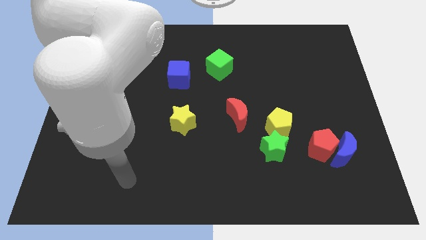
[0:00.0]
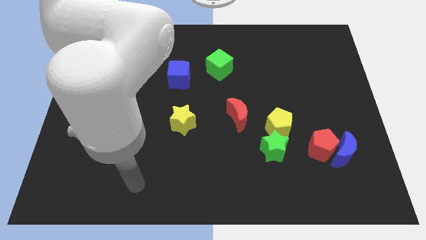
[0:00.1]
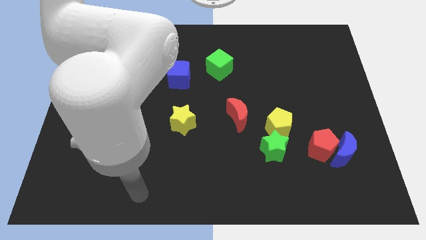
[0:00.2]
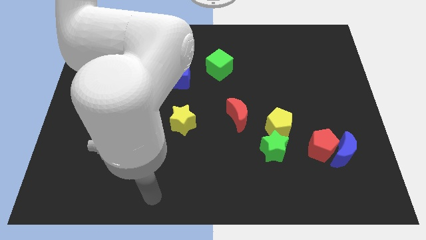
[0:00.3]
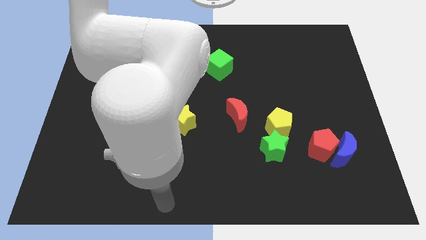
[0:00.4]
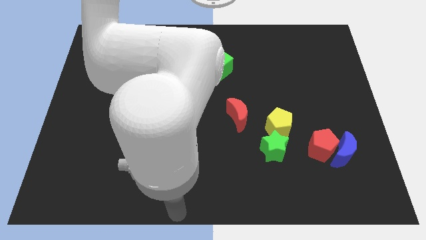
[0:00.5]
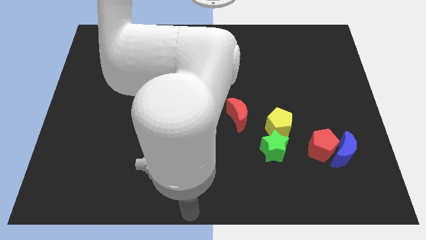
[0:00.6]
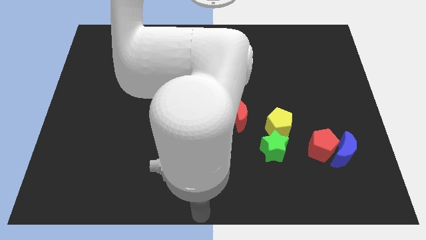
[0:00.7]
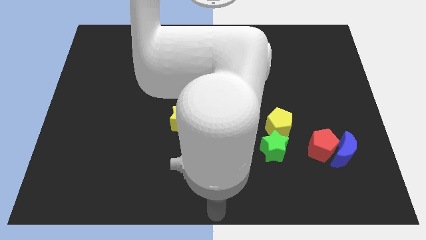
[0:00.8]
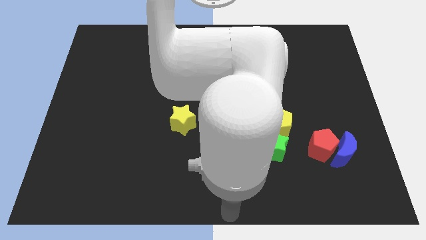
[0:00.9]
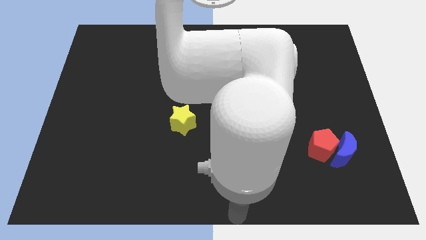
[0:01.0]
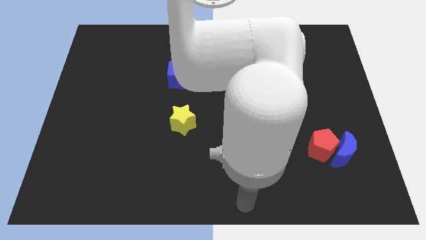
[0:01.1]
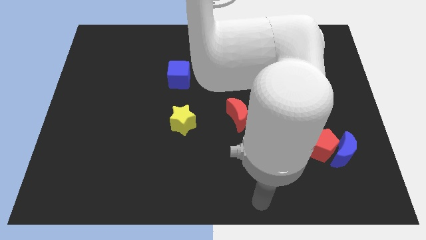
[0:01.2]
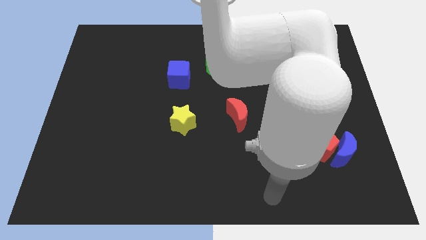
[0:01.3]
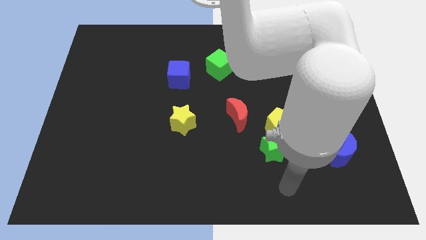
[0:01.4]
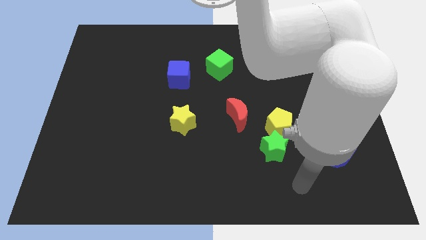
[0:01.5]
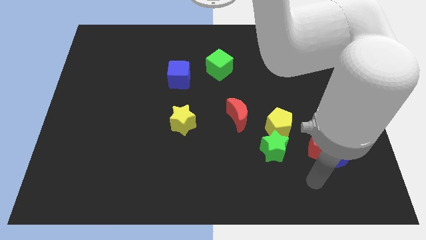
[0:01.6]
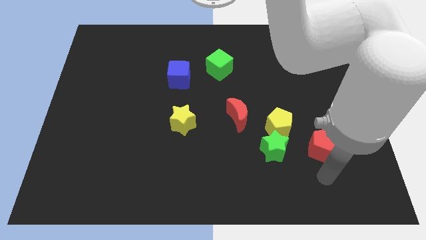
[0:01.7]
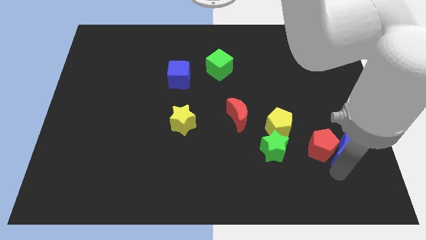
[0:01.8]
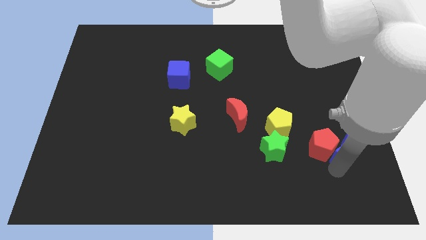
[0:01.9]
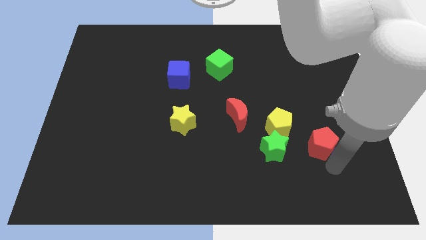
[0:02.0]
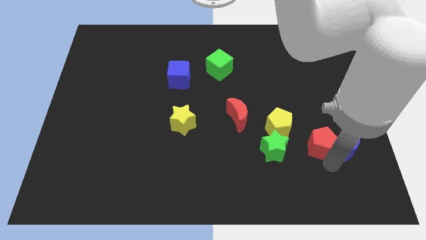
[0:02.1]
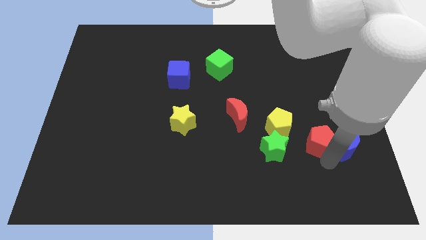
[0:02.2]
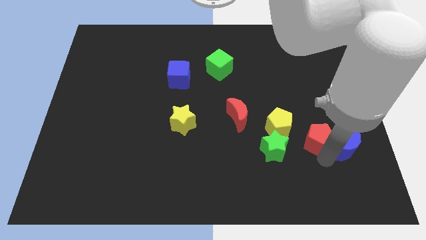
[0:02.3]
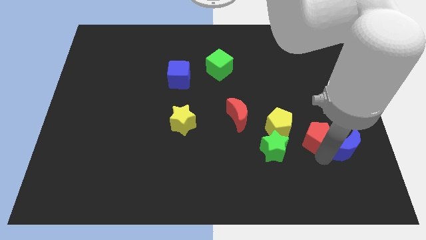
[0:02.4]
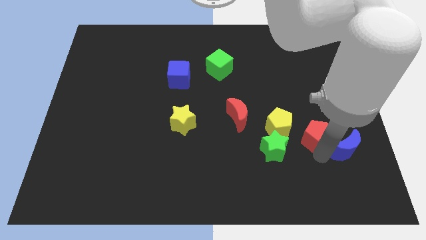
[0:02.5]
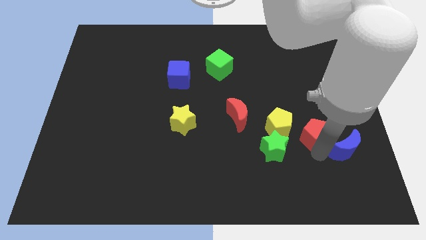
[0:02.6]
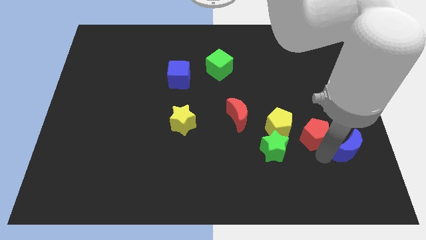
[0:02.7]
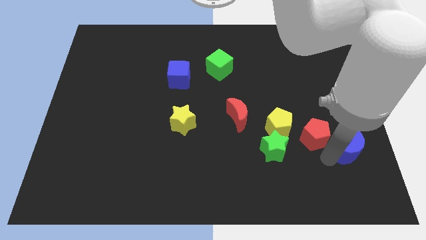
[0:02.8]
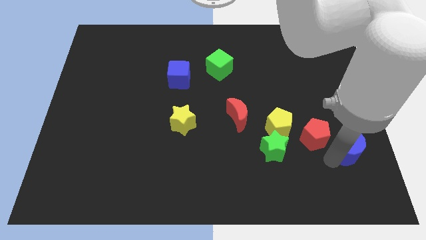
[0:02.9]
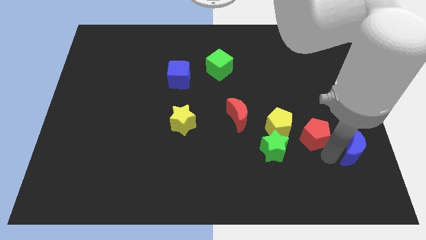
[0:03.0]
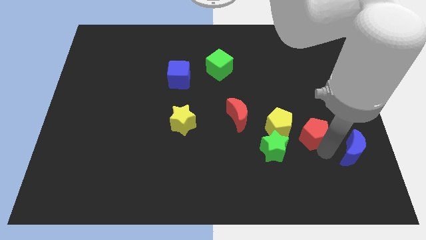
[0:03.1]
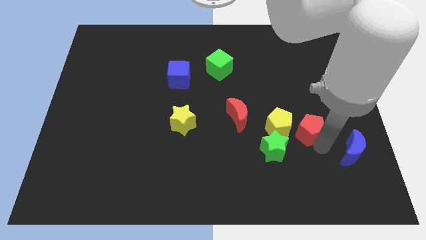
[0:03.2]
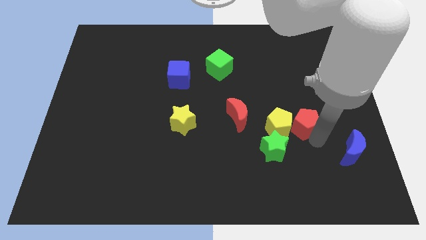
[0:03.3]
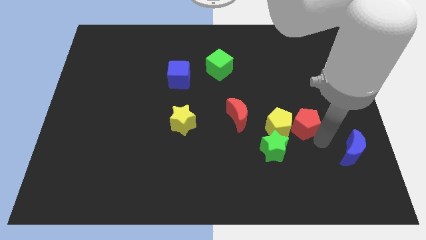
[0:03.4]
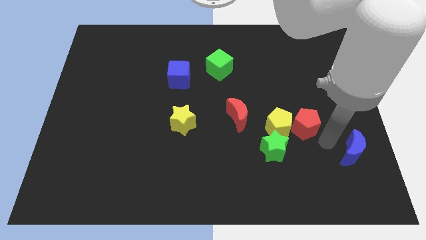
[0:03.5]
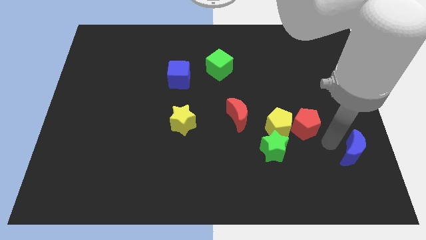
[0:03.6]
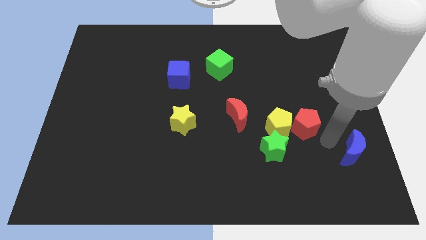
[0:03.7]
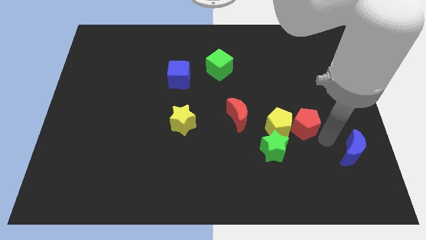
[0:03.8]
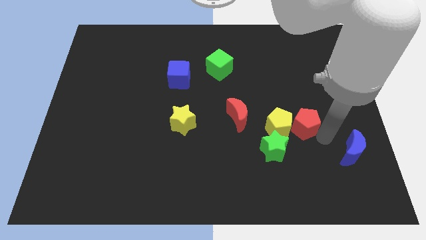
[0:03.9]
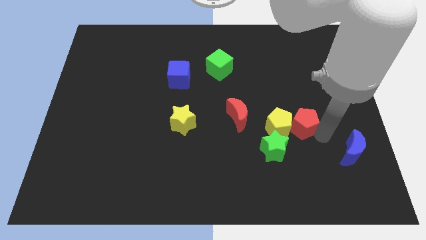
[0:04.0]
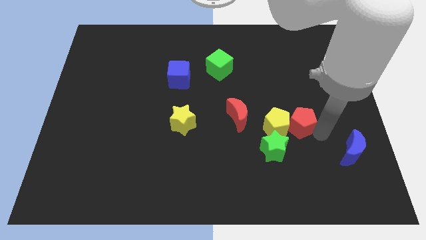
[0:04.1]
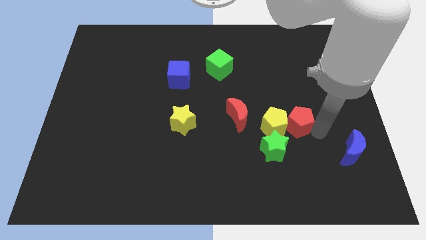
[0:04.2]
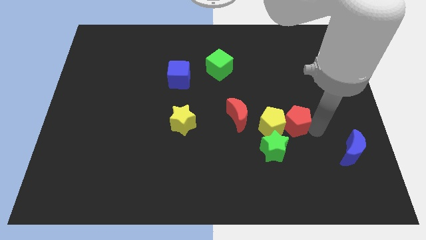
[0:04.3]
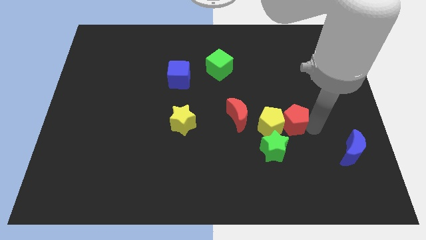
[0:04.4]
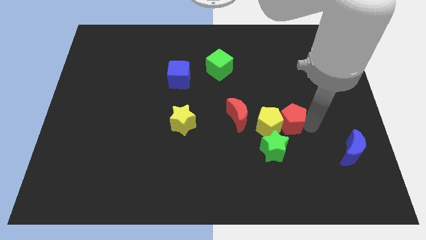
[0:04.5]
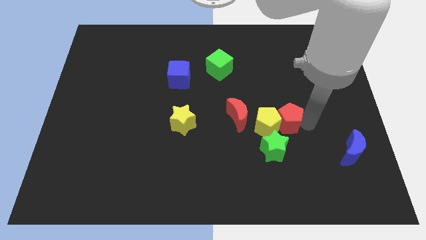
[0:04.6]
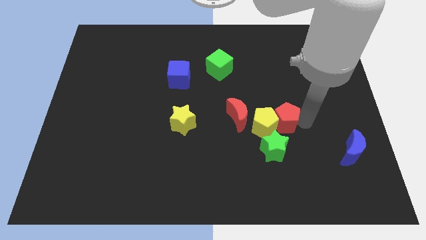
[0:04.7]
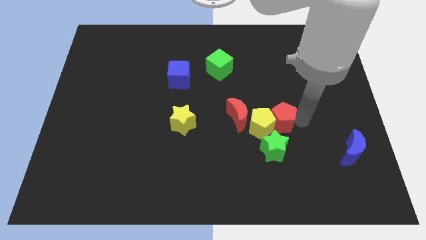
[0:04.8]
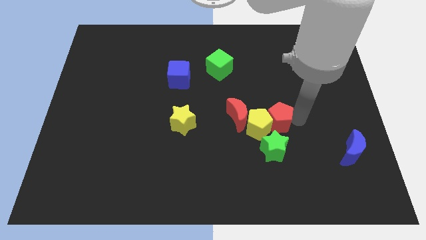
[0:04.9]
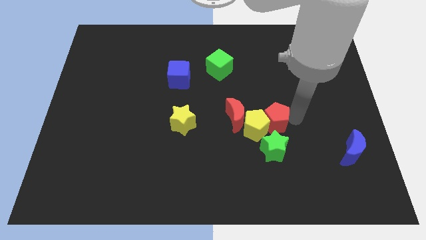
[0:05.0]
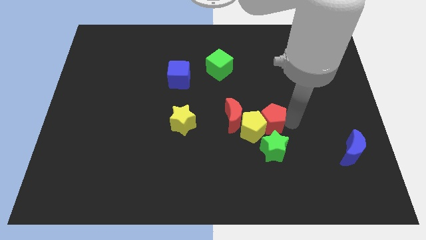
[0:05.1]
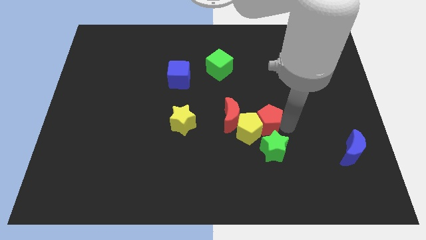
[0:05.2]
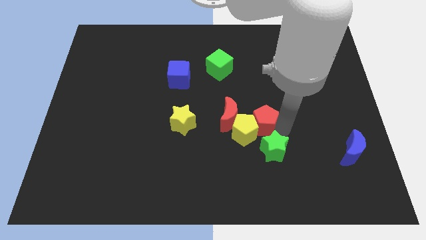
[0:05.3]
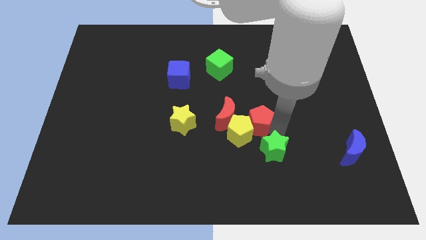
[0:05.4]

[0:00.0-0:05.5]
push the red pentagon to the middle

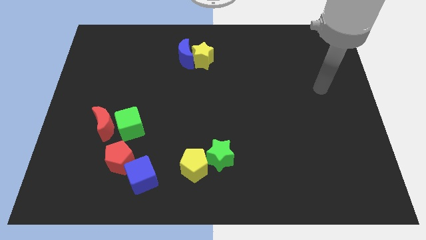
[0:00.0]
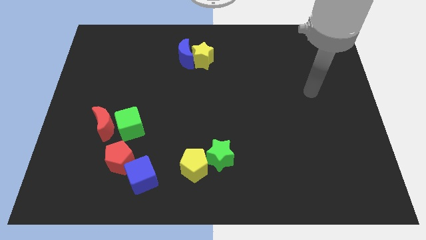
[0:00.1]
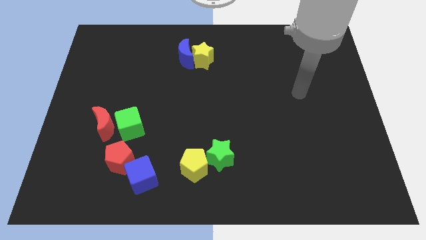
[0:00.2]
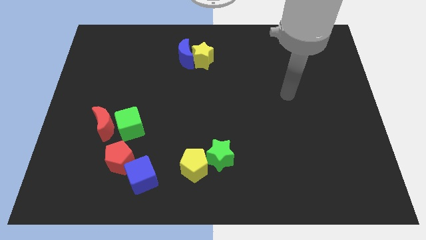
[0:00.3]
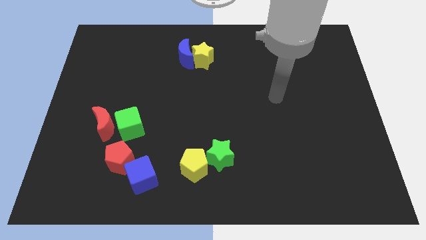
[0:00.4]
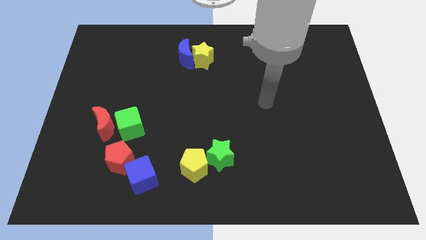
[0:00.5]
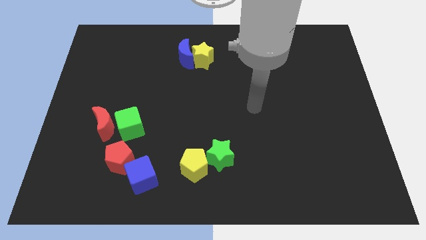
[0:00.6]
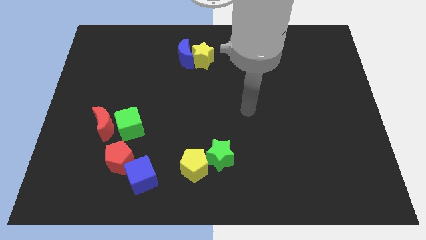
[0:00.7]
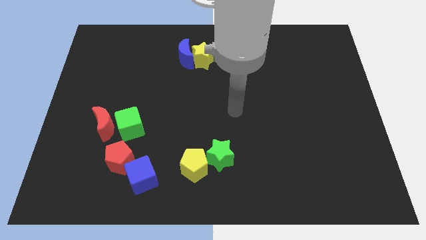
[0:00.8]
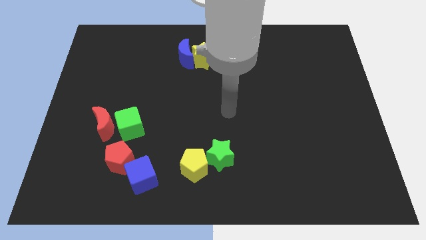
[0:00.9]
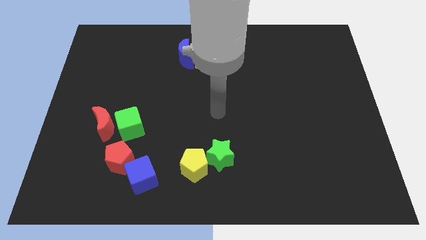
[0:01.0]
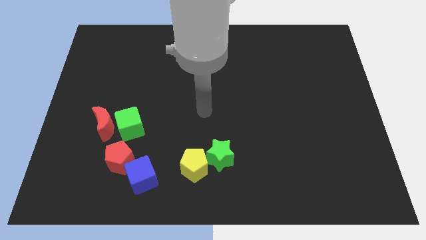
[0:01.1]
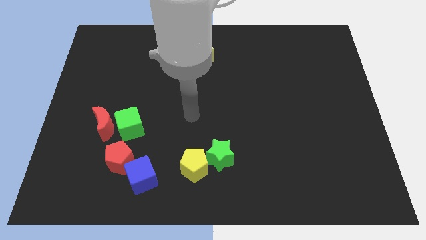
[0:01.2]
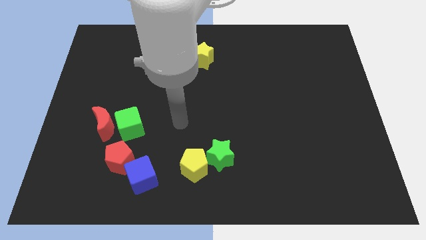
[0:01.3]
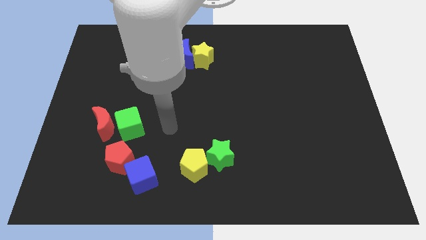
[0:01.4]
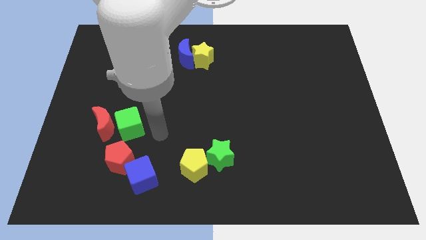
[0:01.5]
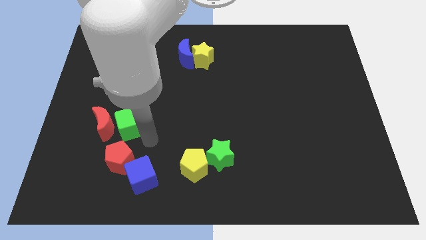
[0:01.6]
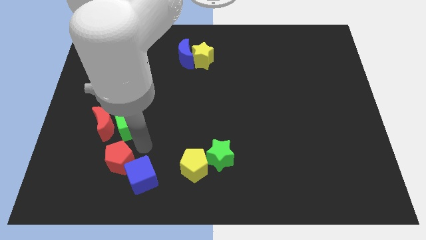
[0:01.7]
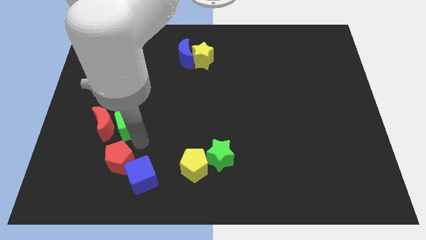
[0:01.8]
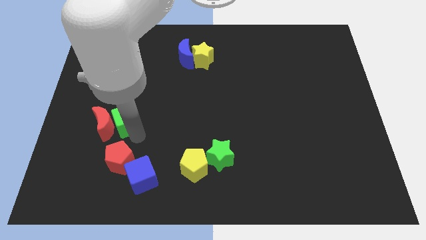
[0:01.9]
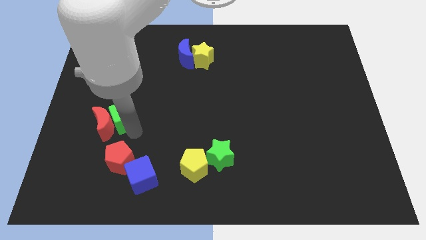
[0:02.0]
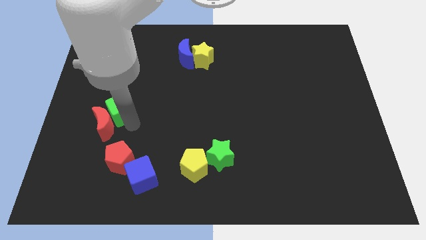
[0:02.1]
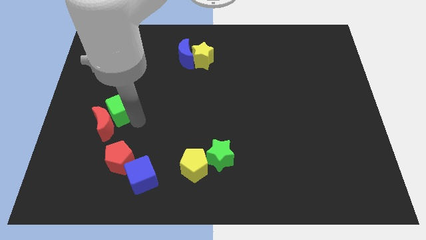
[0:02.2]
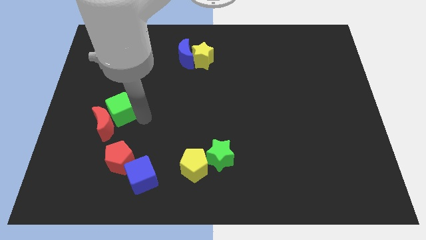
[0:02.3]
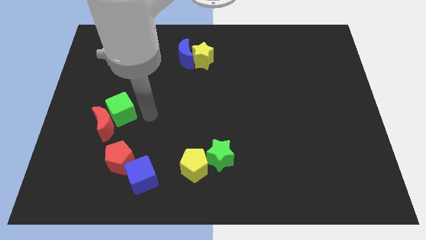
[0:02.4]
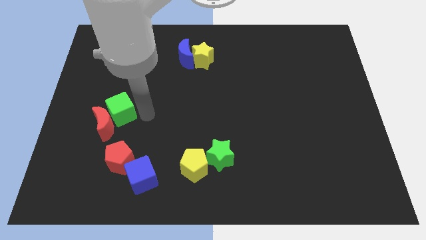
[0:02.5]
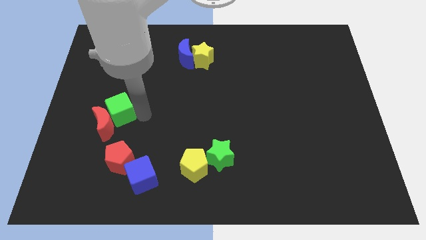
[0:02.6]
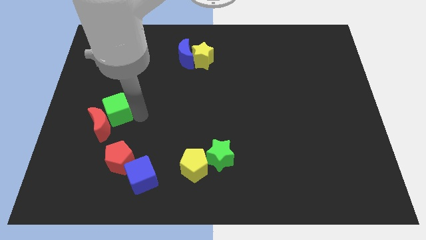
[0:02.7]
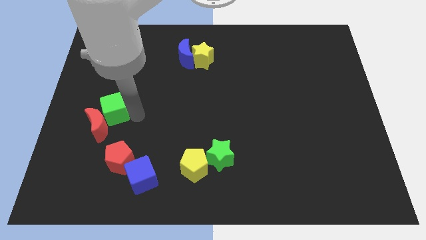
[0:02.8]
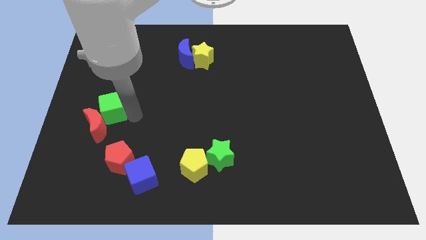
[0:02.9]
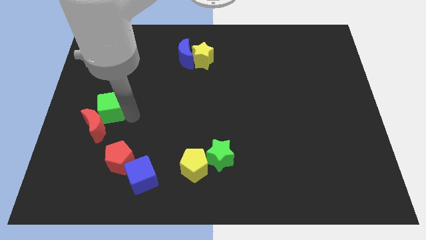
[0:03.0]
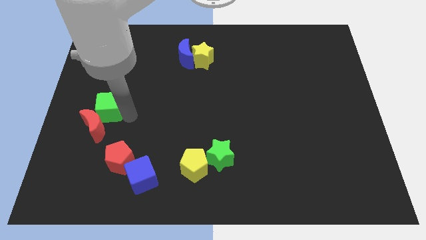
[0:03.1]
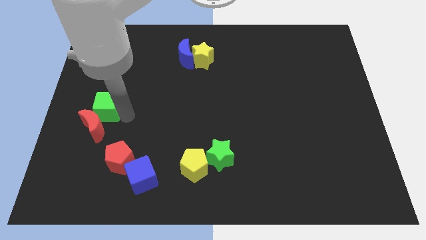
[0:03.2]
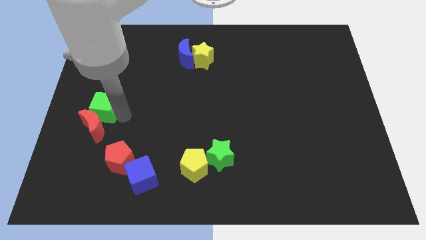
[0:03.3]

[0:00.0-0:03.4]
move the green cube to the center left
